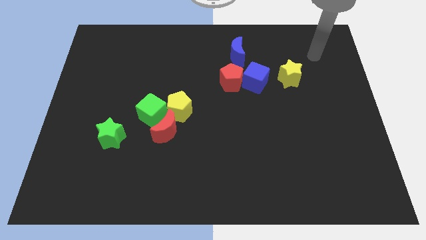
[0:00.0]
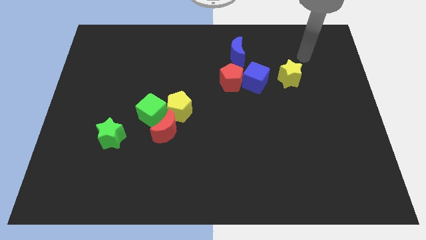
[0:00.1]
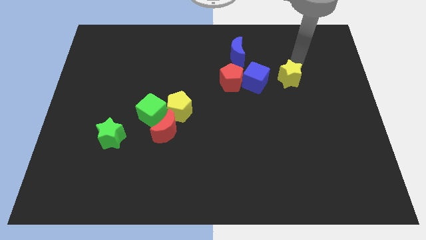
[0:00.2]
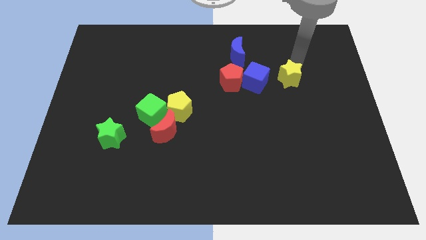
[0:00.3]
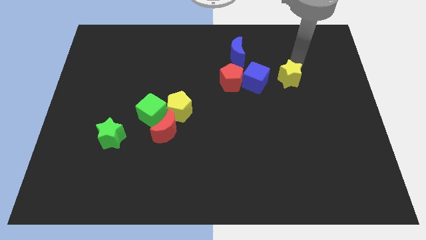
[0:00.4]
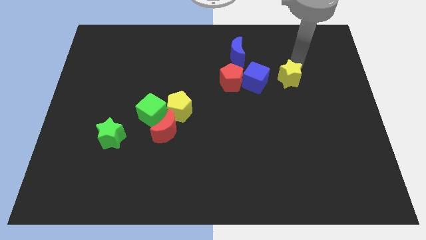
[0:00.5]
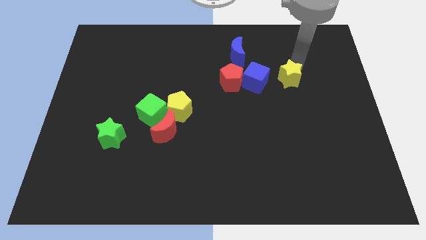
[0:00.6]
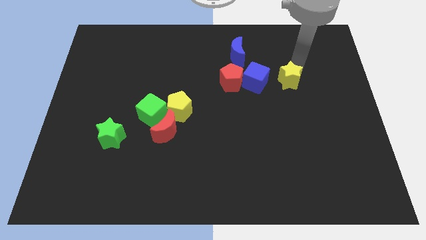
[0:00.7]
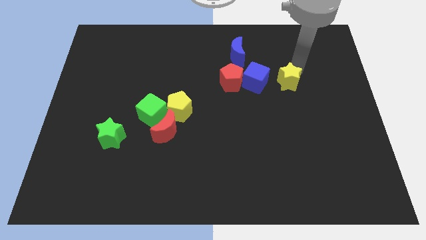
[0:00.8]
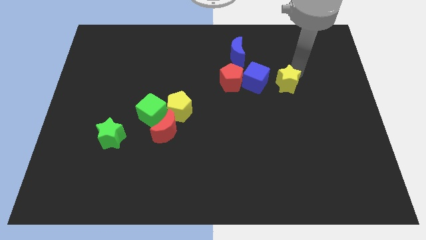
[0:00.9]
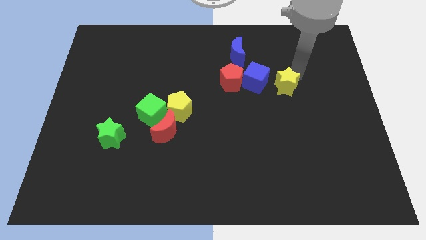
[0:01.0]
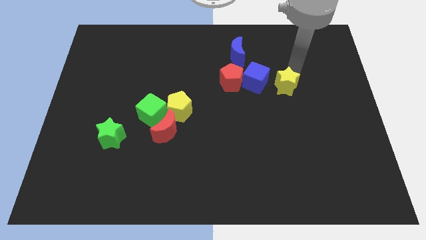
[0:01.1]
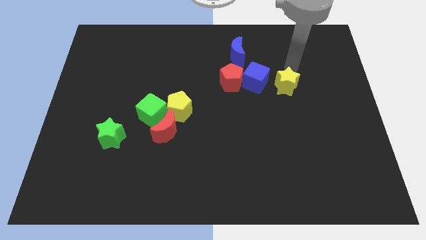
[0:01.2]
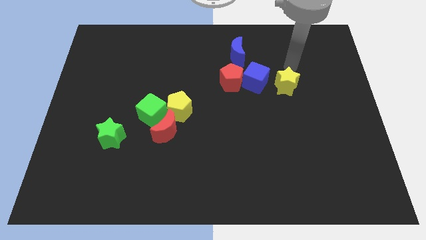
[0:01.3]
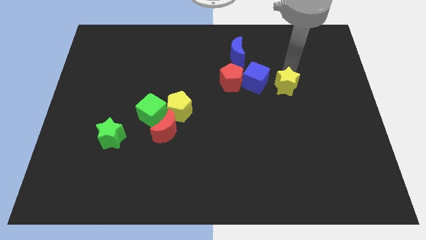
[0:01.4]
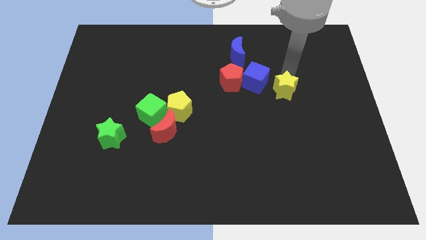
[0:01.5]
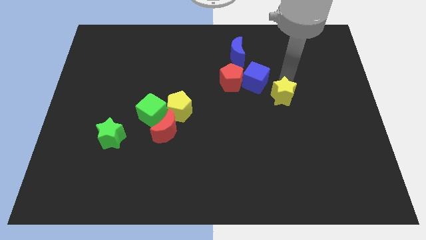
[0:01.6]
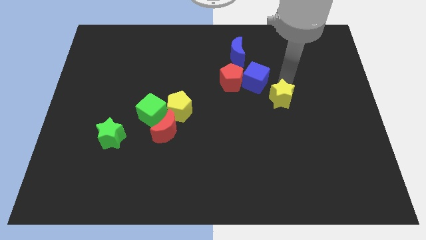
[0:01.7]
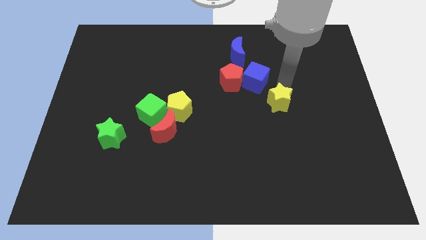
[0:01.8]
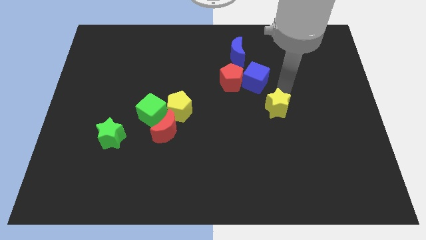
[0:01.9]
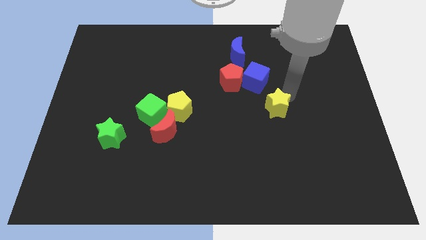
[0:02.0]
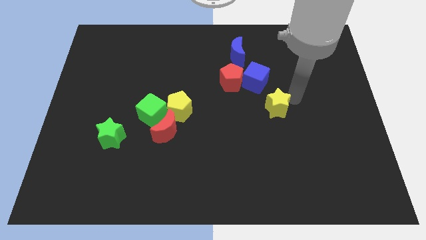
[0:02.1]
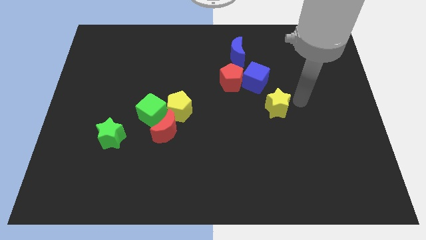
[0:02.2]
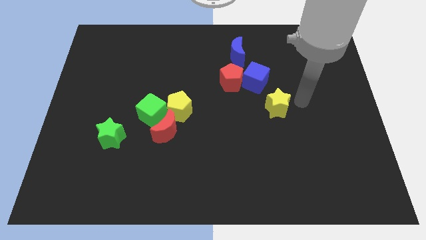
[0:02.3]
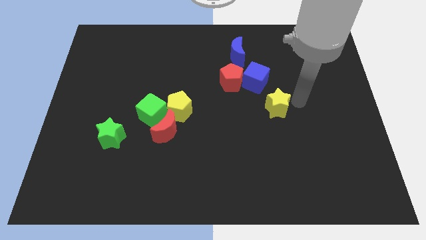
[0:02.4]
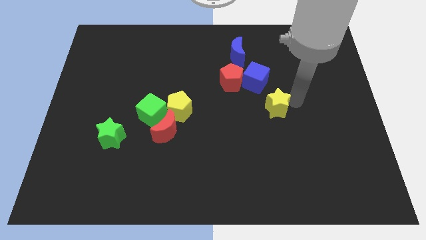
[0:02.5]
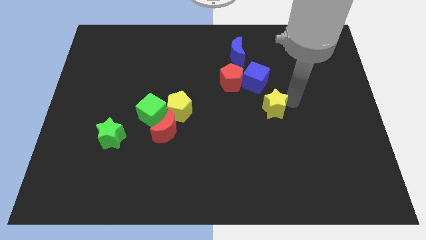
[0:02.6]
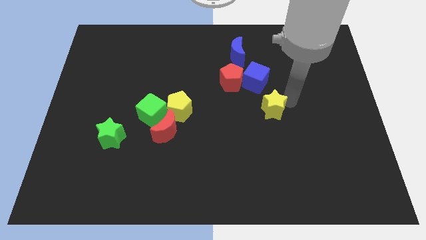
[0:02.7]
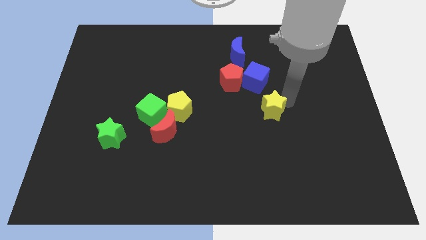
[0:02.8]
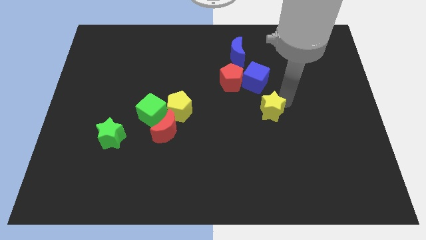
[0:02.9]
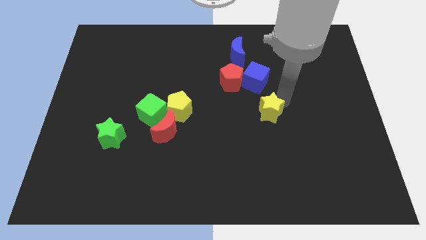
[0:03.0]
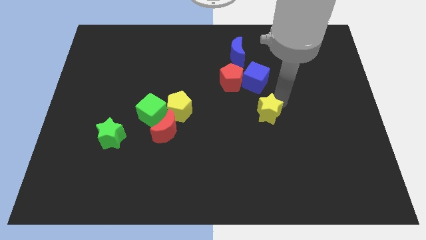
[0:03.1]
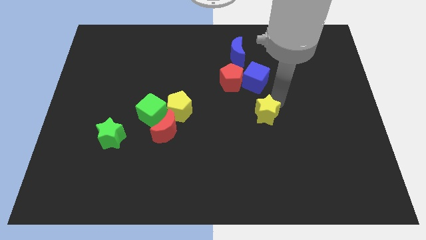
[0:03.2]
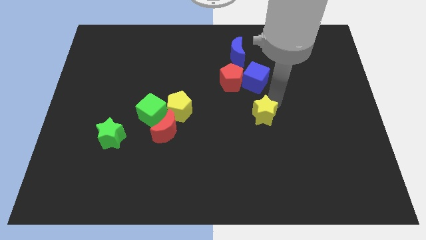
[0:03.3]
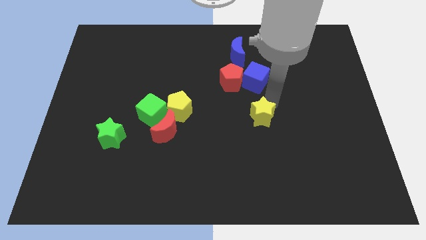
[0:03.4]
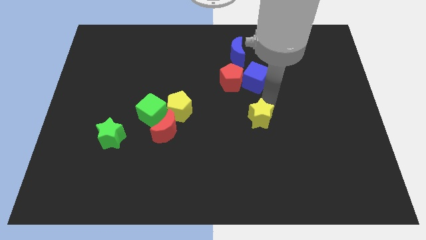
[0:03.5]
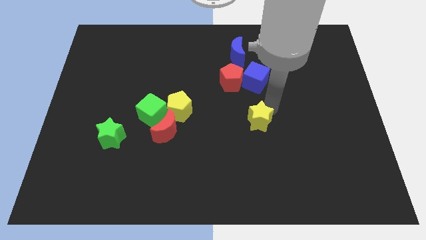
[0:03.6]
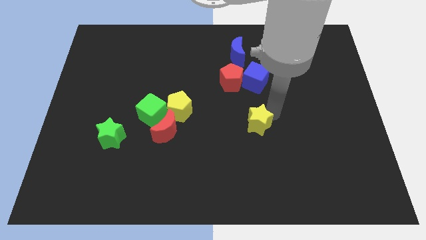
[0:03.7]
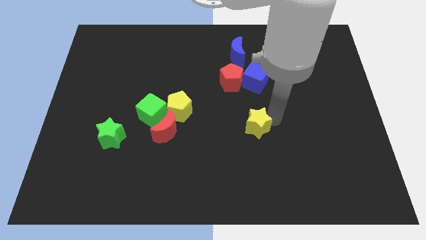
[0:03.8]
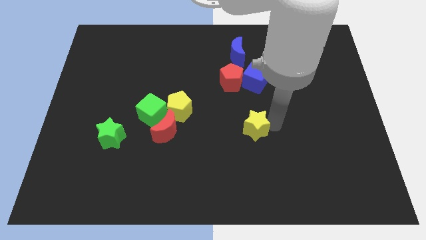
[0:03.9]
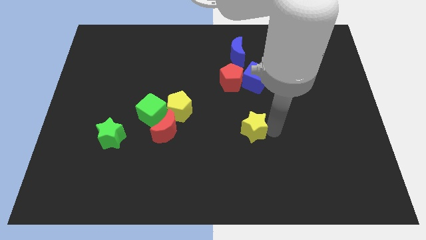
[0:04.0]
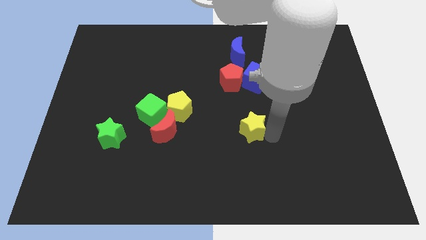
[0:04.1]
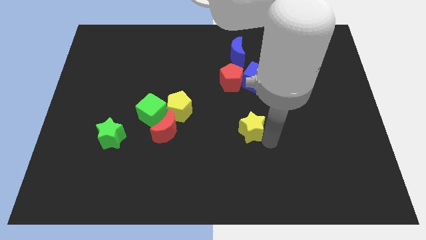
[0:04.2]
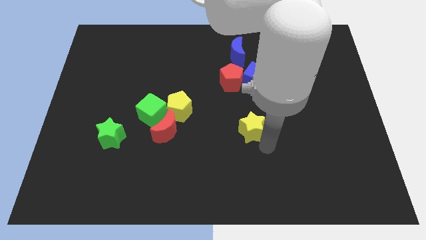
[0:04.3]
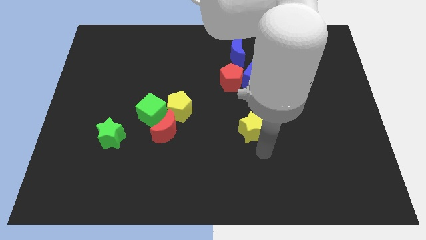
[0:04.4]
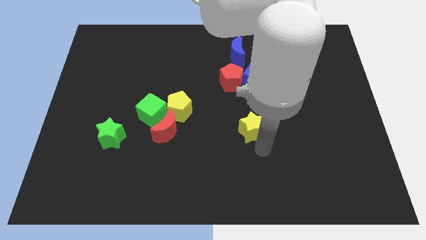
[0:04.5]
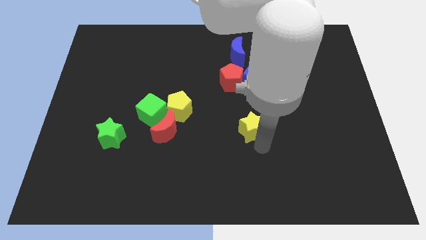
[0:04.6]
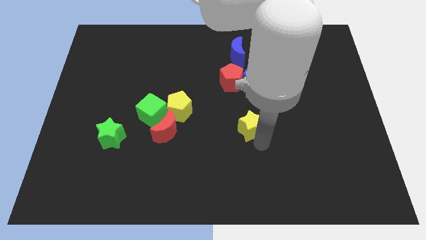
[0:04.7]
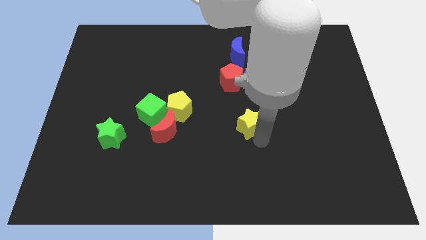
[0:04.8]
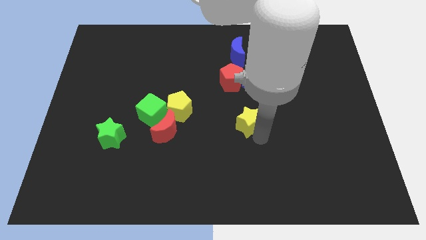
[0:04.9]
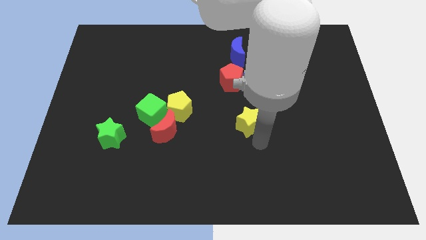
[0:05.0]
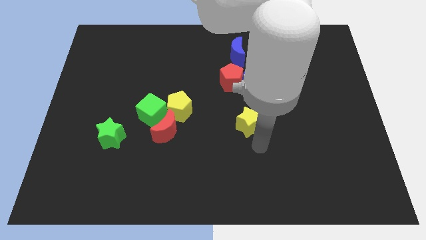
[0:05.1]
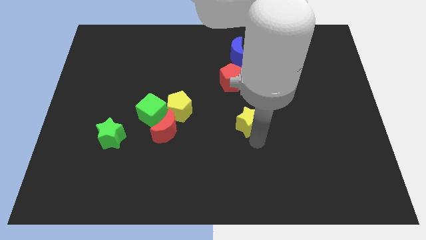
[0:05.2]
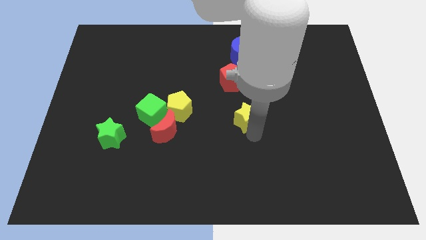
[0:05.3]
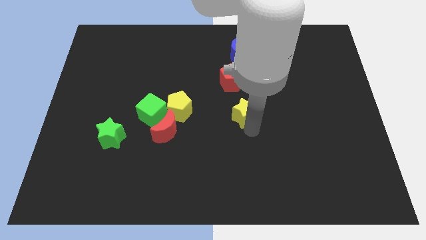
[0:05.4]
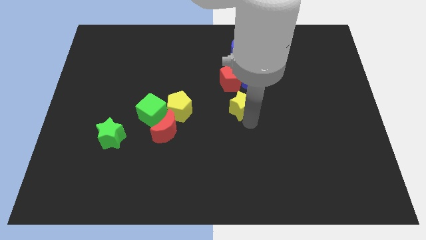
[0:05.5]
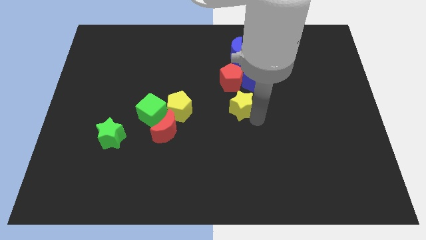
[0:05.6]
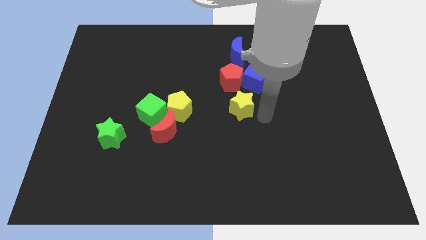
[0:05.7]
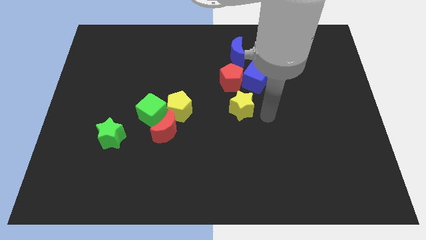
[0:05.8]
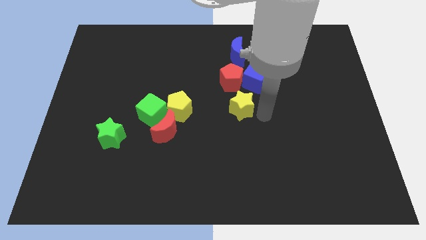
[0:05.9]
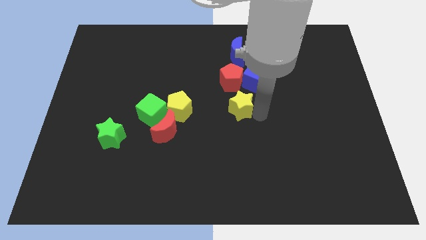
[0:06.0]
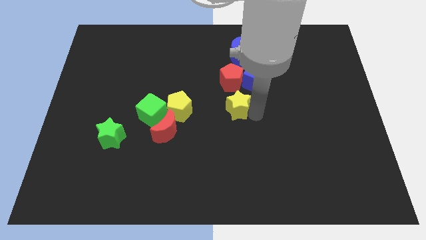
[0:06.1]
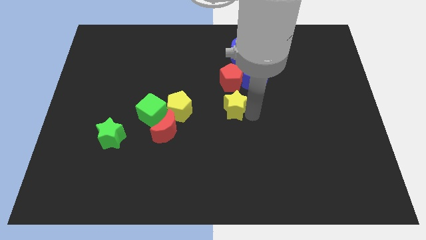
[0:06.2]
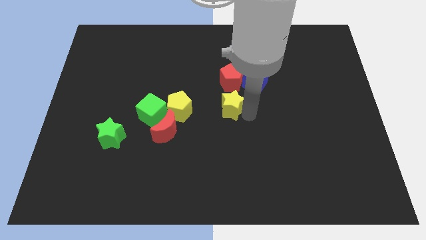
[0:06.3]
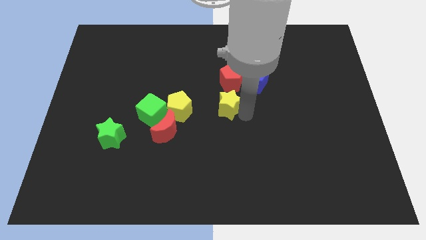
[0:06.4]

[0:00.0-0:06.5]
put the yellow star diagonally down and to the left of the red pentagon
